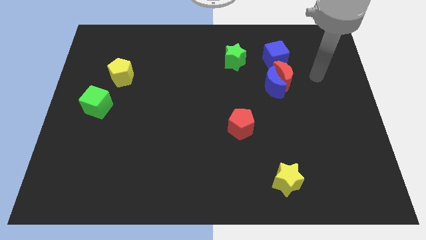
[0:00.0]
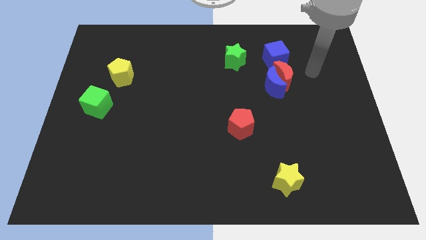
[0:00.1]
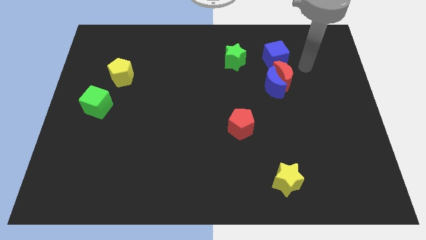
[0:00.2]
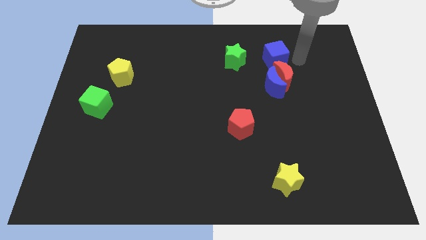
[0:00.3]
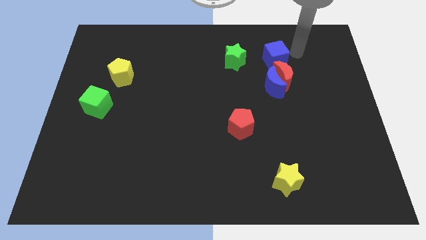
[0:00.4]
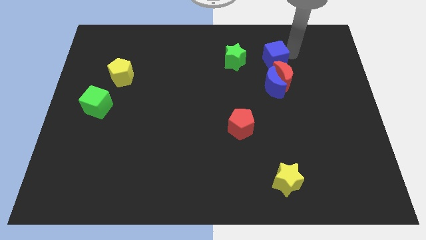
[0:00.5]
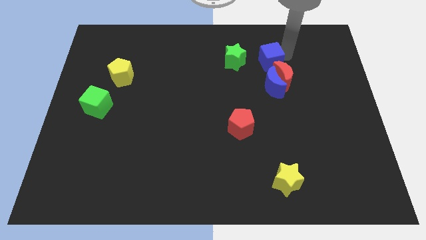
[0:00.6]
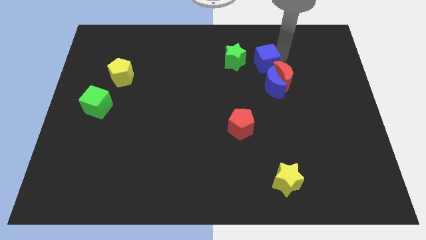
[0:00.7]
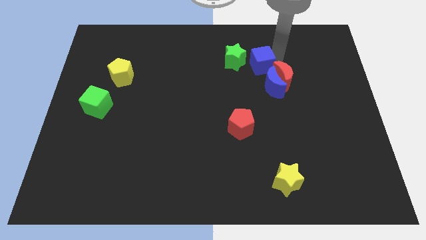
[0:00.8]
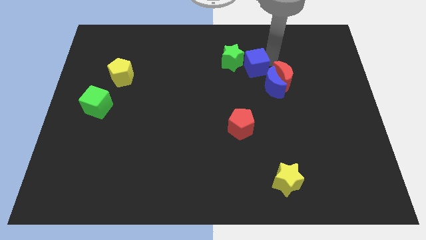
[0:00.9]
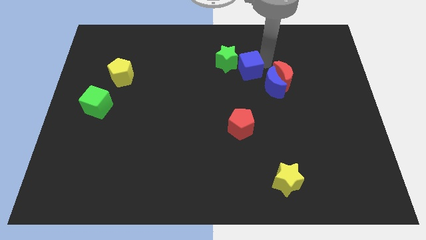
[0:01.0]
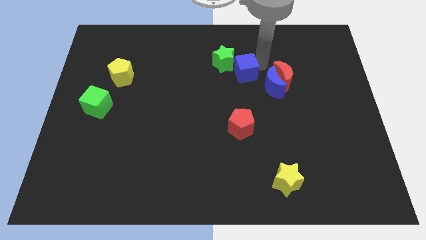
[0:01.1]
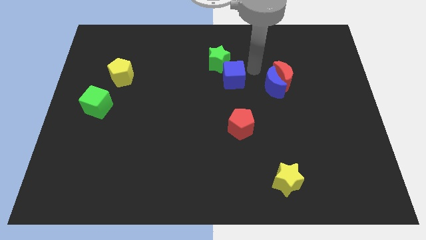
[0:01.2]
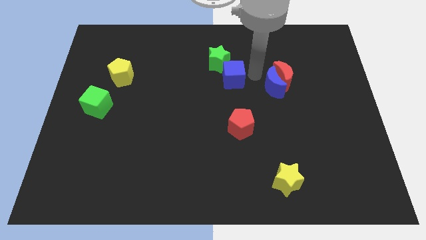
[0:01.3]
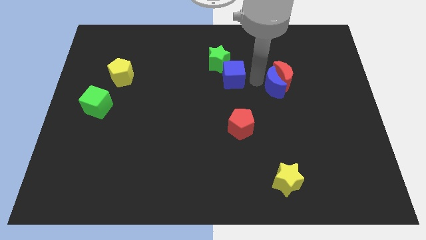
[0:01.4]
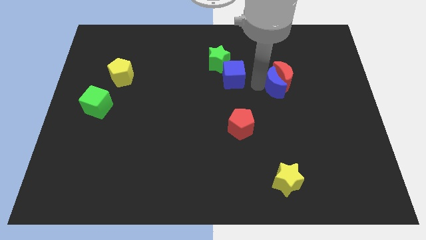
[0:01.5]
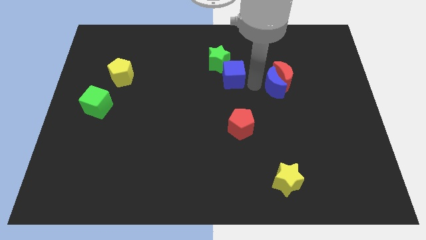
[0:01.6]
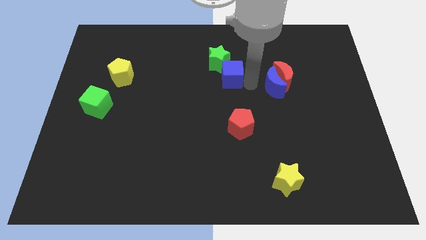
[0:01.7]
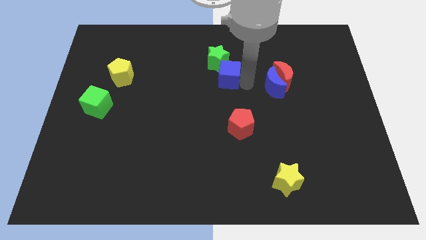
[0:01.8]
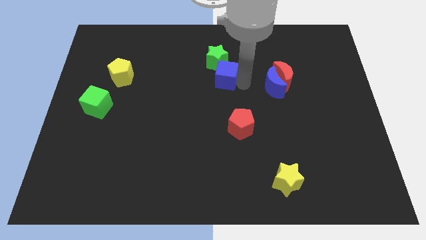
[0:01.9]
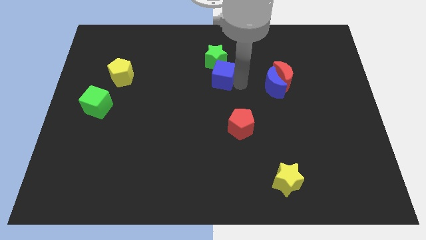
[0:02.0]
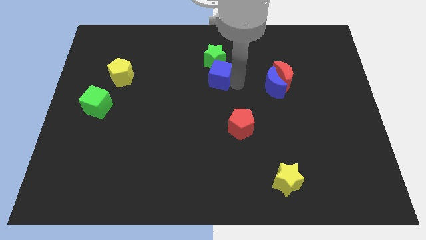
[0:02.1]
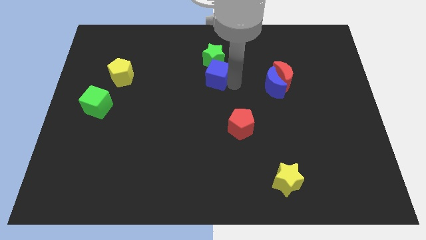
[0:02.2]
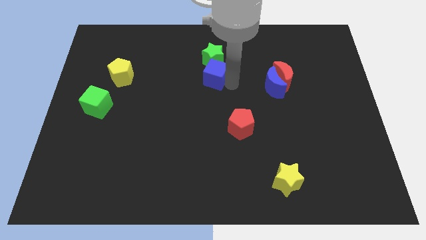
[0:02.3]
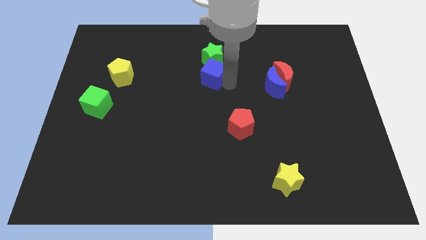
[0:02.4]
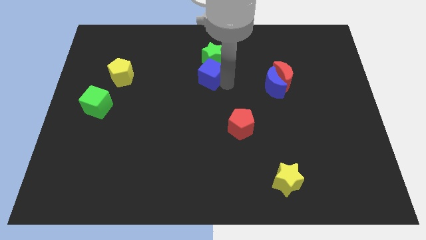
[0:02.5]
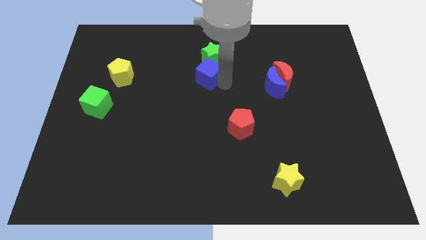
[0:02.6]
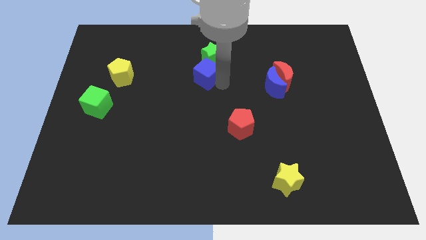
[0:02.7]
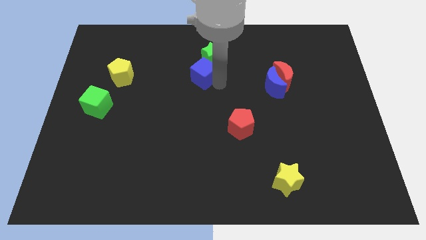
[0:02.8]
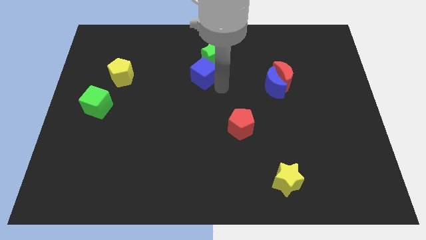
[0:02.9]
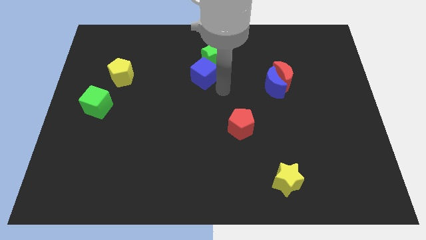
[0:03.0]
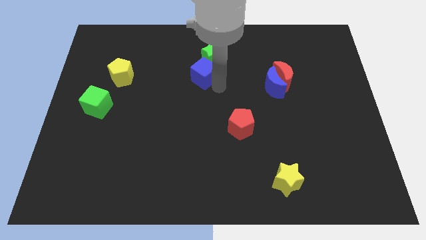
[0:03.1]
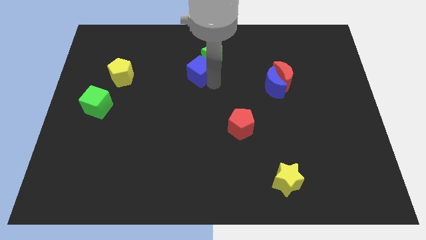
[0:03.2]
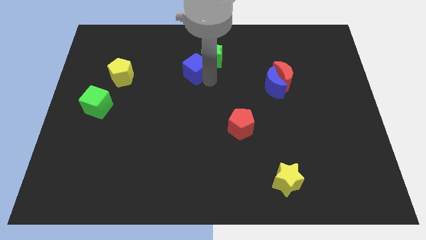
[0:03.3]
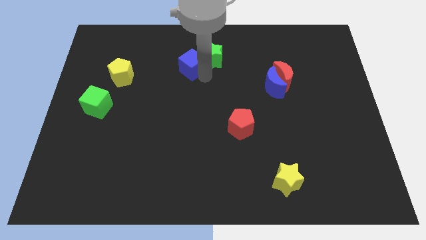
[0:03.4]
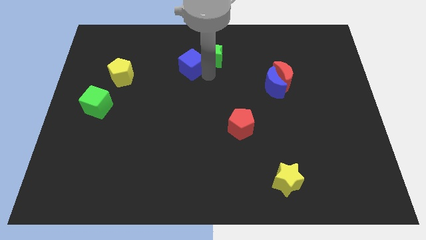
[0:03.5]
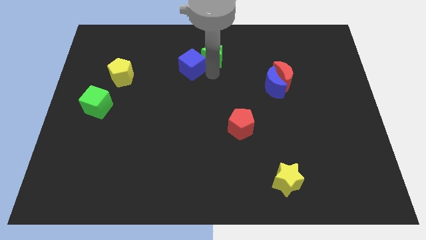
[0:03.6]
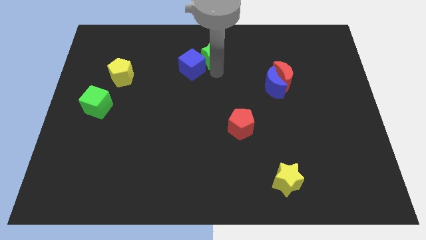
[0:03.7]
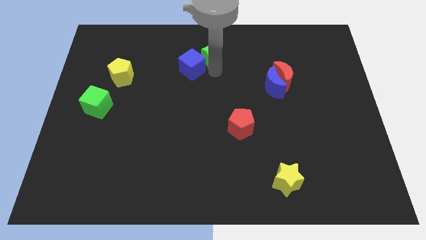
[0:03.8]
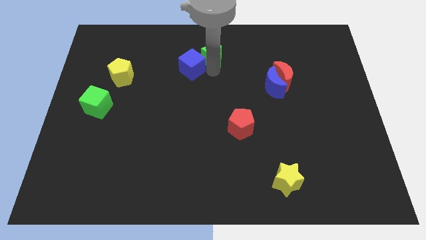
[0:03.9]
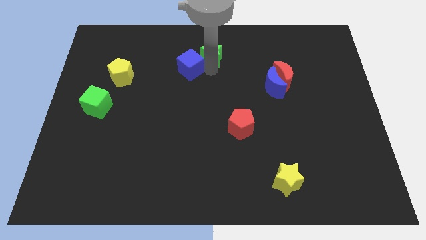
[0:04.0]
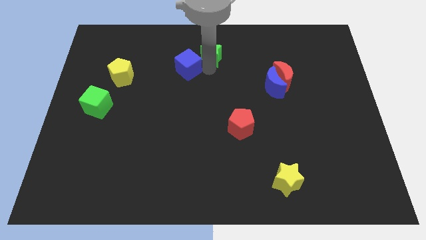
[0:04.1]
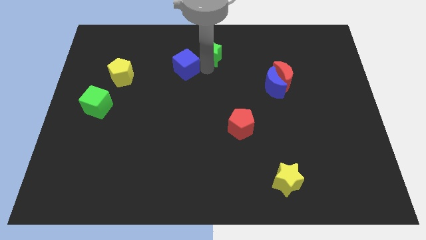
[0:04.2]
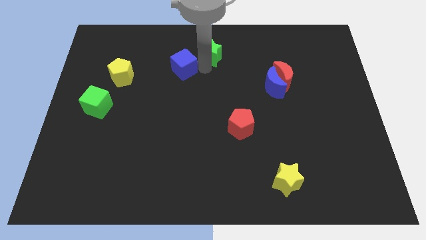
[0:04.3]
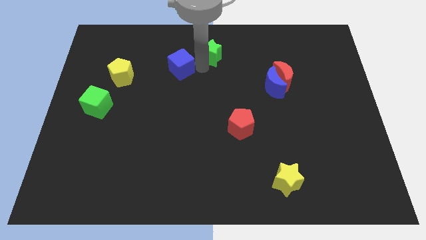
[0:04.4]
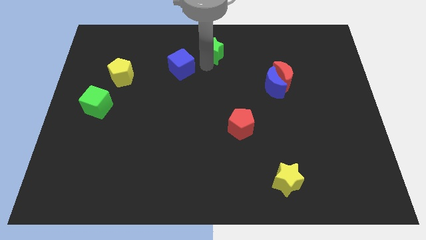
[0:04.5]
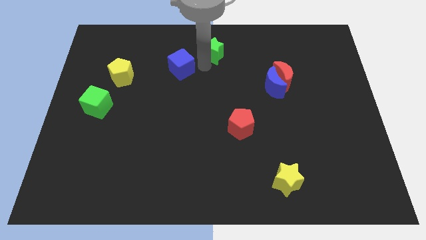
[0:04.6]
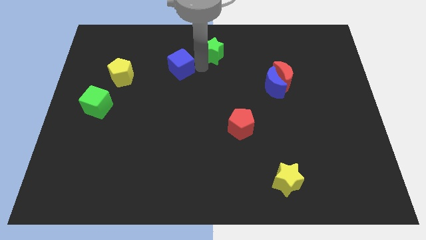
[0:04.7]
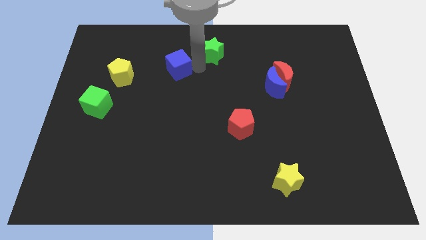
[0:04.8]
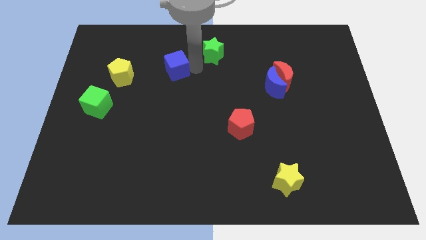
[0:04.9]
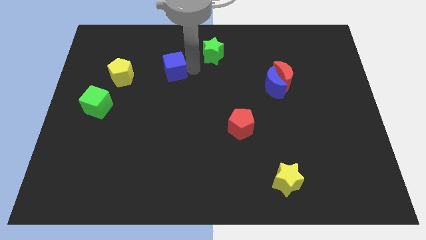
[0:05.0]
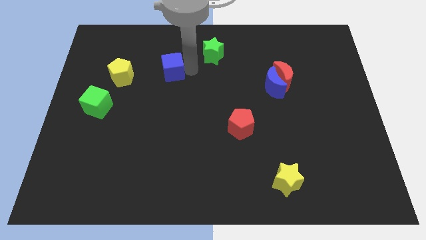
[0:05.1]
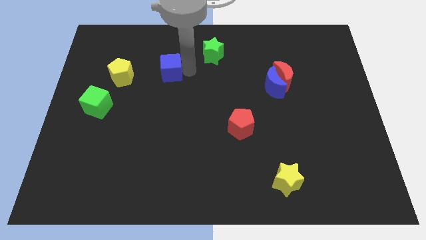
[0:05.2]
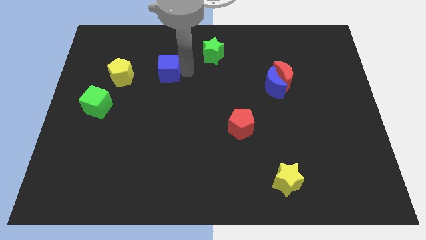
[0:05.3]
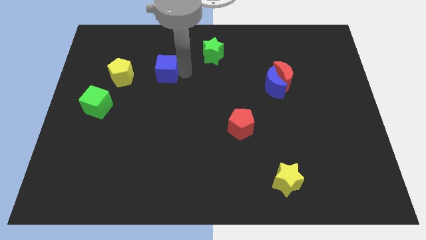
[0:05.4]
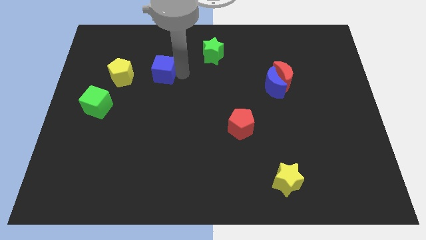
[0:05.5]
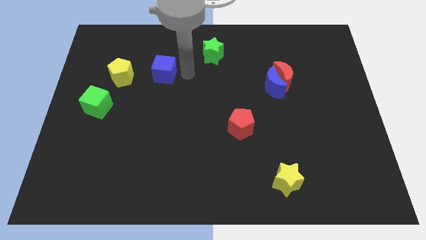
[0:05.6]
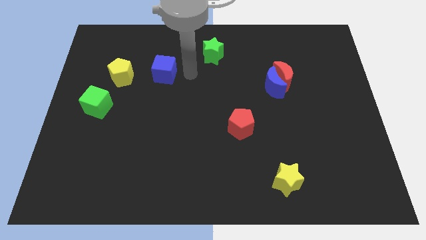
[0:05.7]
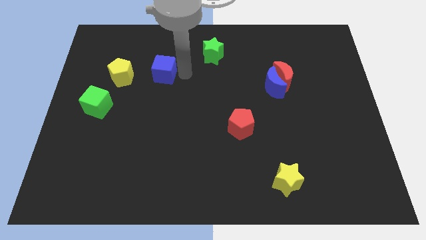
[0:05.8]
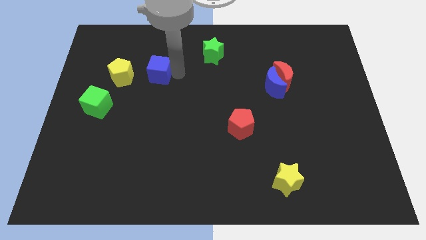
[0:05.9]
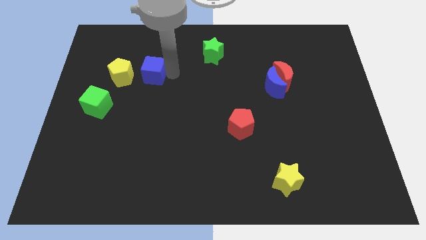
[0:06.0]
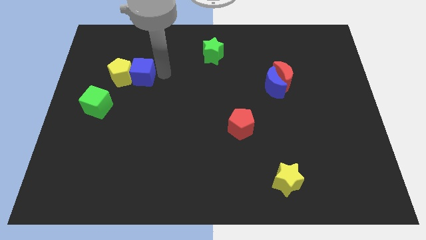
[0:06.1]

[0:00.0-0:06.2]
put the blue cube to the yellow pentagon

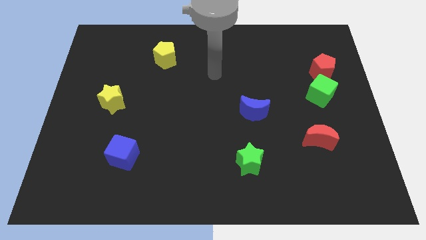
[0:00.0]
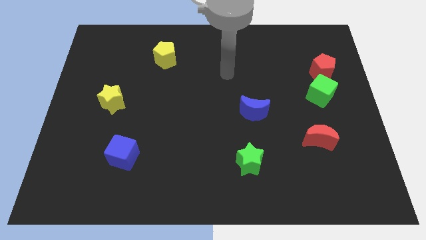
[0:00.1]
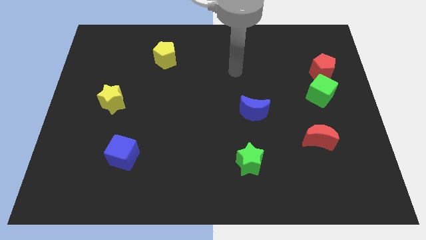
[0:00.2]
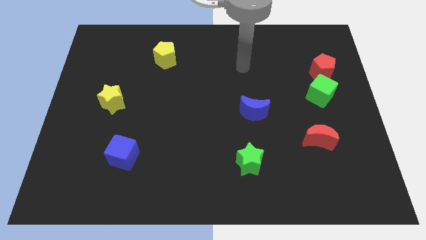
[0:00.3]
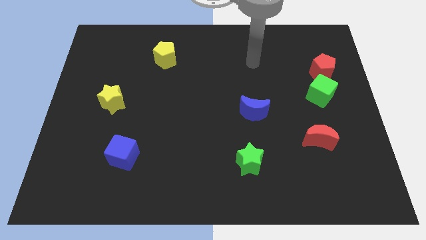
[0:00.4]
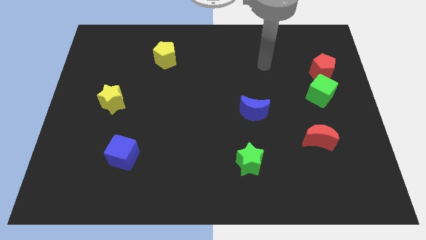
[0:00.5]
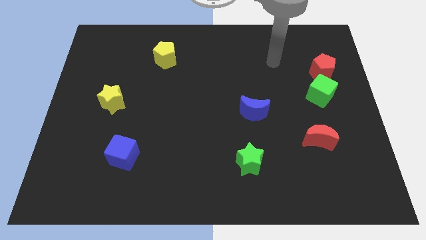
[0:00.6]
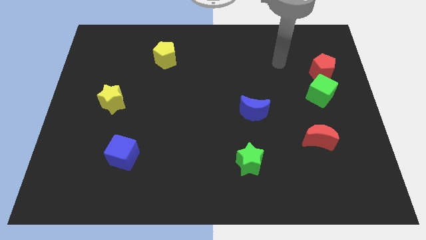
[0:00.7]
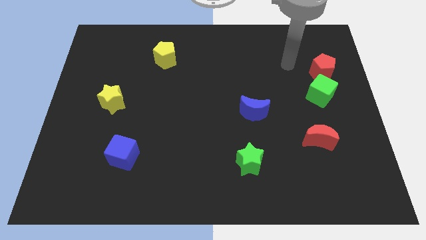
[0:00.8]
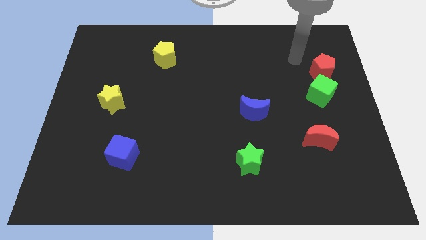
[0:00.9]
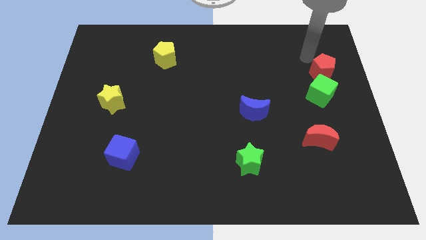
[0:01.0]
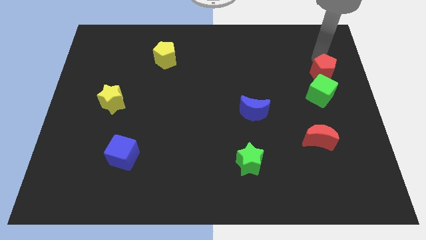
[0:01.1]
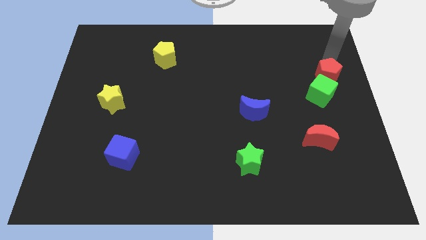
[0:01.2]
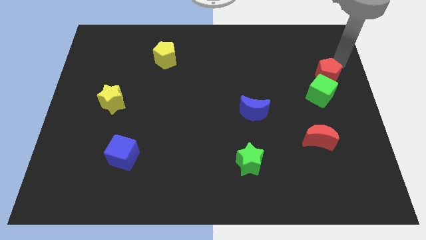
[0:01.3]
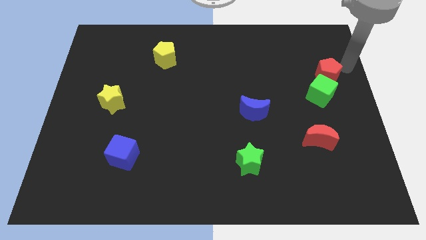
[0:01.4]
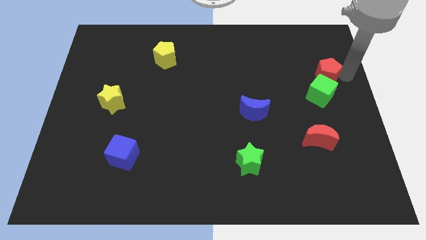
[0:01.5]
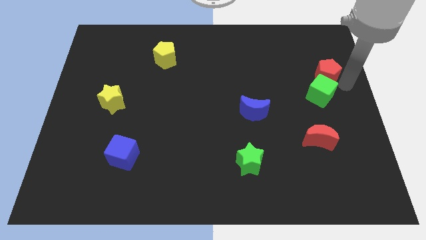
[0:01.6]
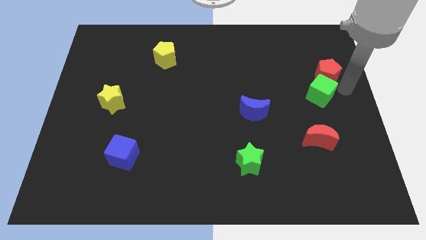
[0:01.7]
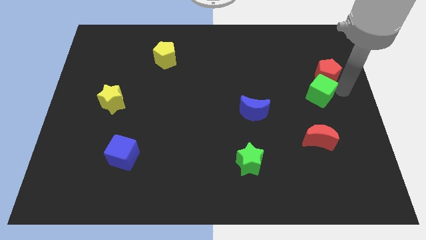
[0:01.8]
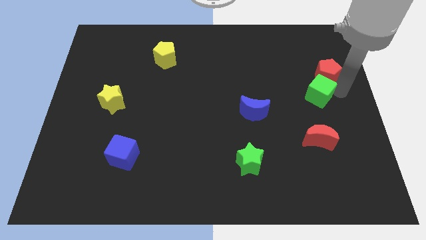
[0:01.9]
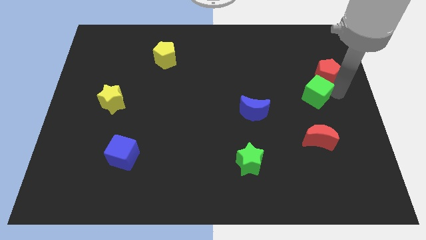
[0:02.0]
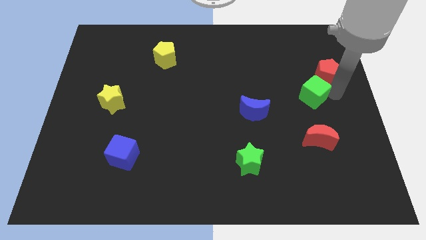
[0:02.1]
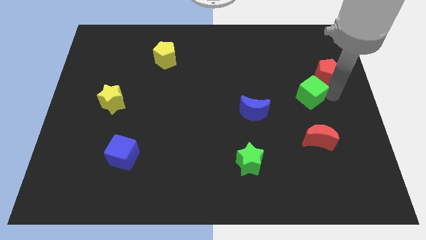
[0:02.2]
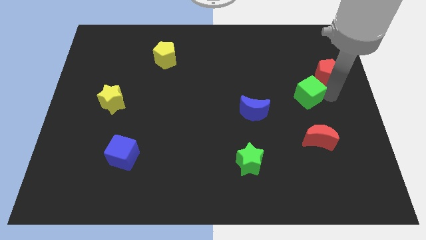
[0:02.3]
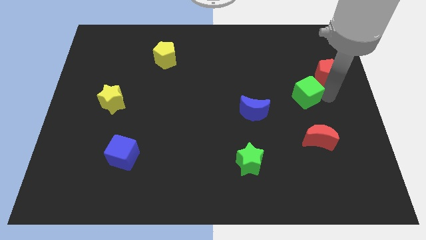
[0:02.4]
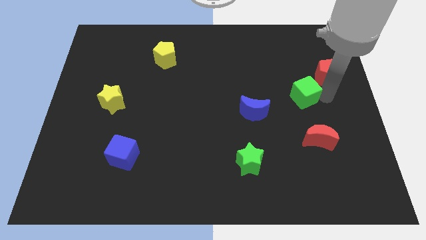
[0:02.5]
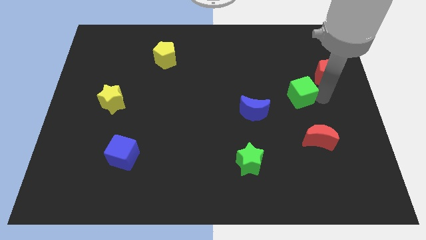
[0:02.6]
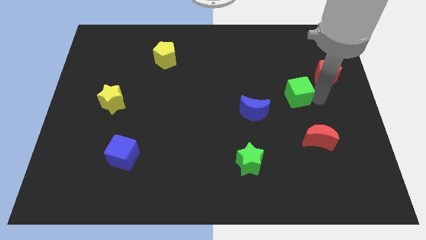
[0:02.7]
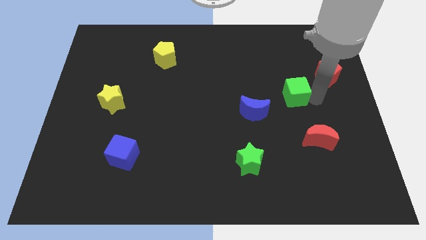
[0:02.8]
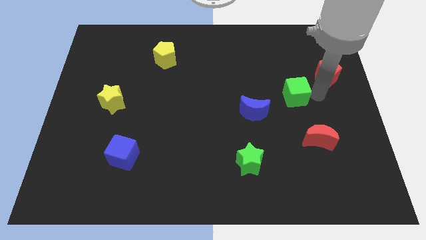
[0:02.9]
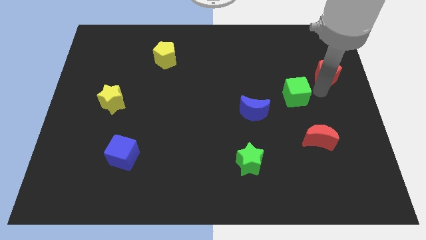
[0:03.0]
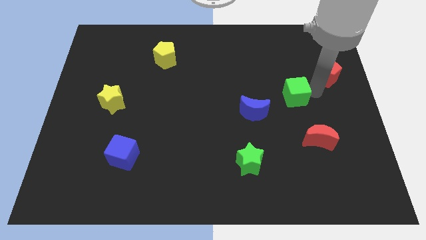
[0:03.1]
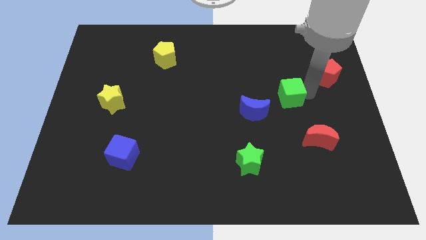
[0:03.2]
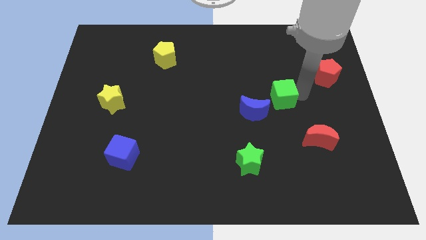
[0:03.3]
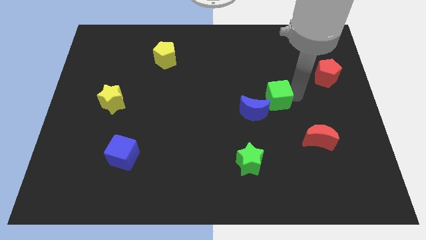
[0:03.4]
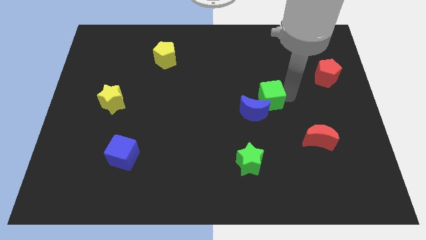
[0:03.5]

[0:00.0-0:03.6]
slide the green cube next to the blue moon
